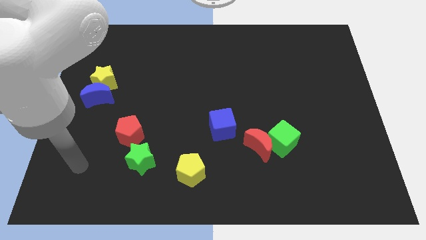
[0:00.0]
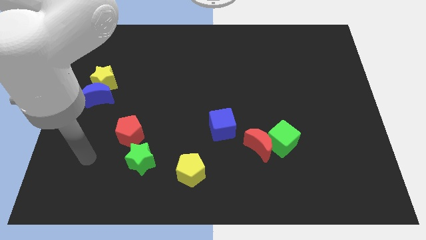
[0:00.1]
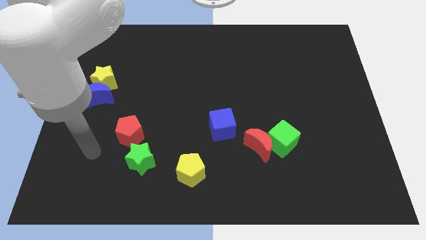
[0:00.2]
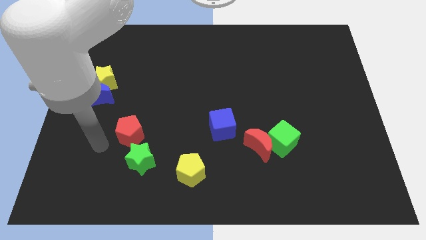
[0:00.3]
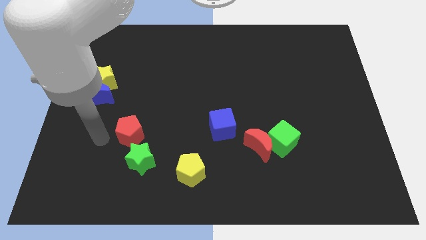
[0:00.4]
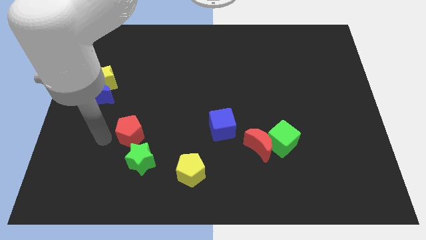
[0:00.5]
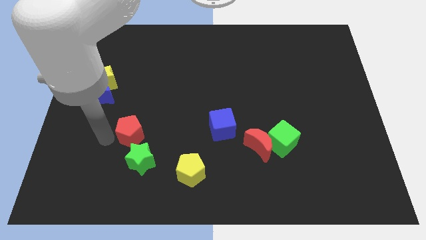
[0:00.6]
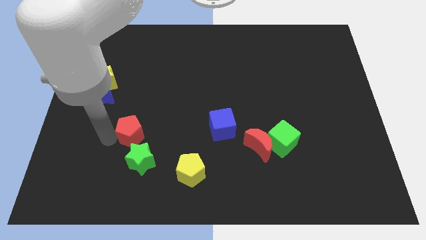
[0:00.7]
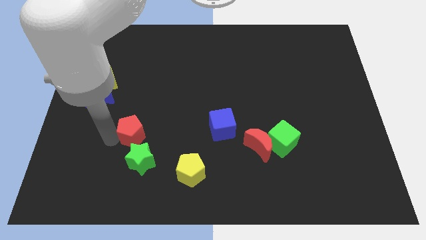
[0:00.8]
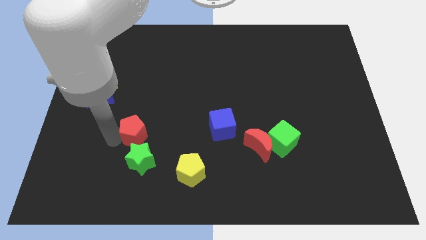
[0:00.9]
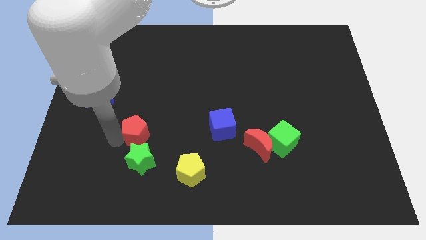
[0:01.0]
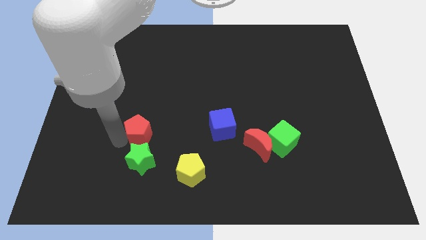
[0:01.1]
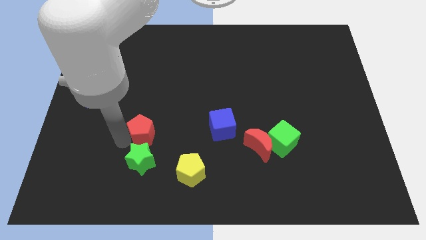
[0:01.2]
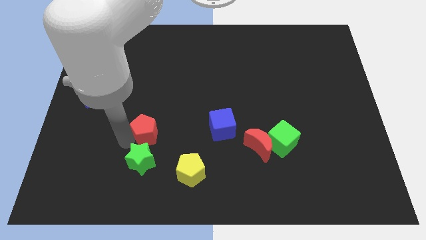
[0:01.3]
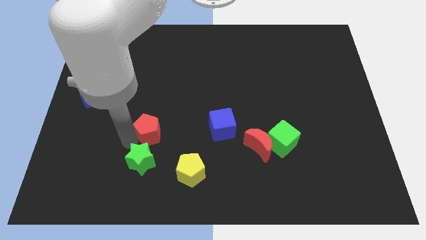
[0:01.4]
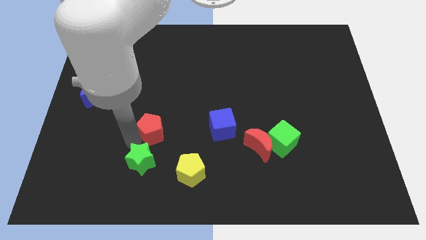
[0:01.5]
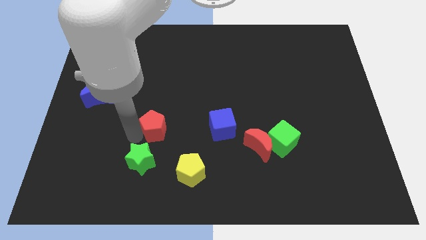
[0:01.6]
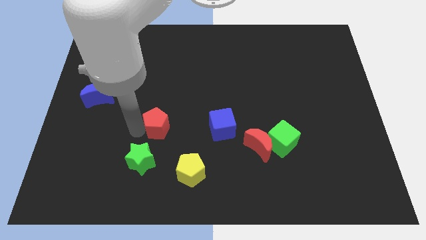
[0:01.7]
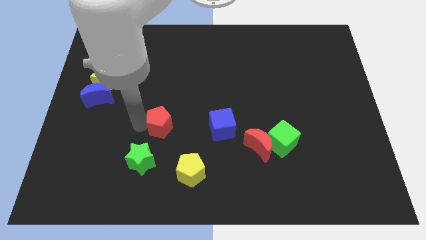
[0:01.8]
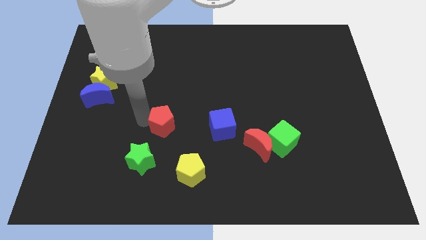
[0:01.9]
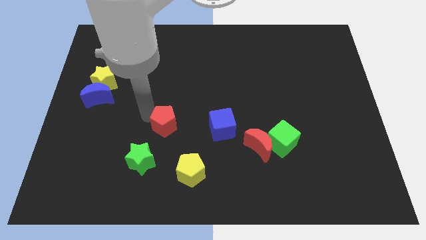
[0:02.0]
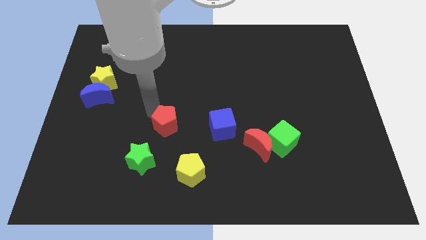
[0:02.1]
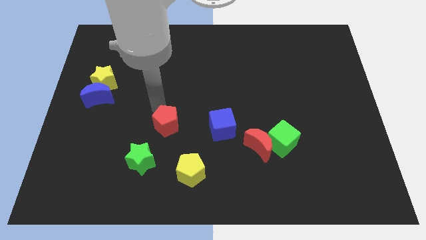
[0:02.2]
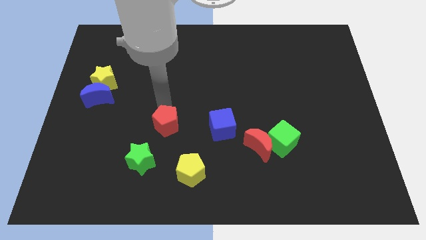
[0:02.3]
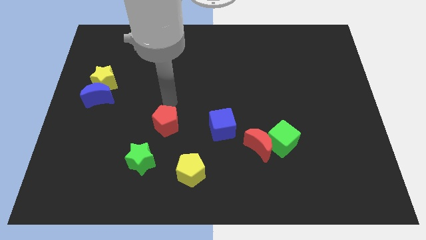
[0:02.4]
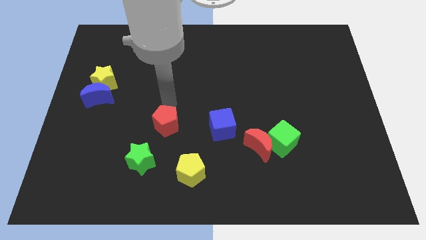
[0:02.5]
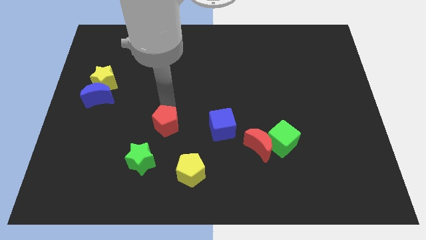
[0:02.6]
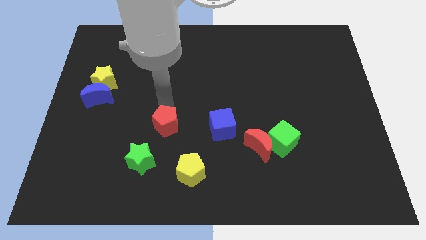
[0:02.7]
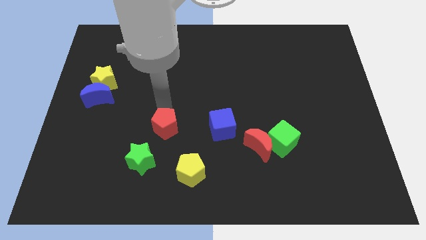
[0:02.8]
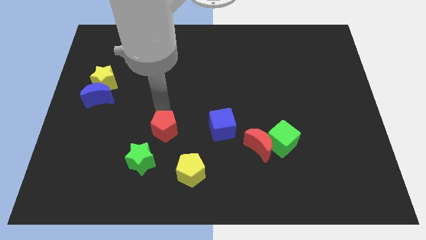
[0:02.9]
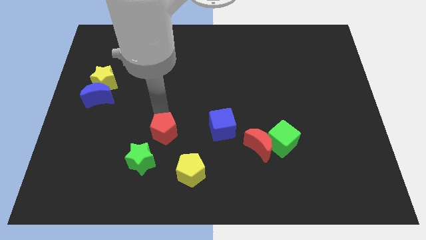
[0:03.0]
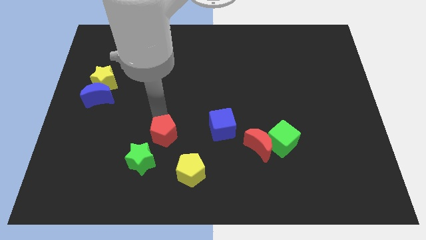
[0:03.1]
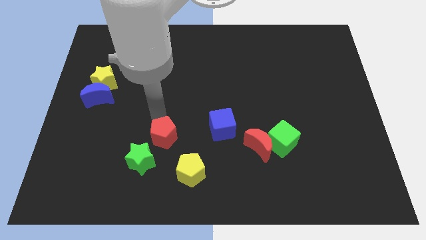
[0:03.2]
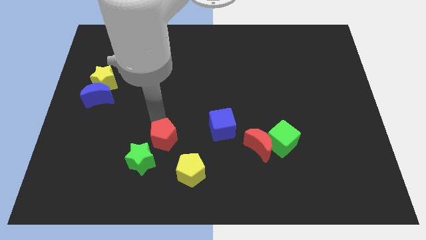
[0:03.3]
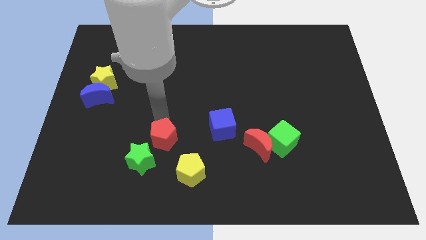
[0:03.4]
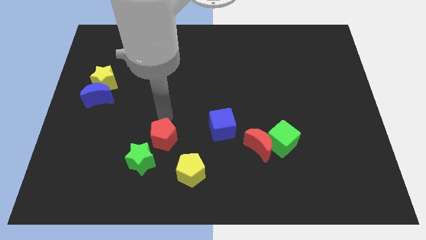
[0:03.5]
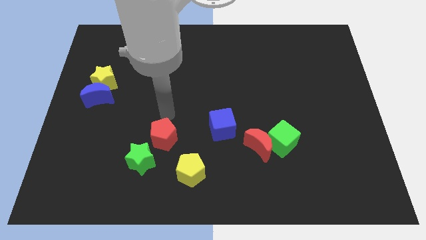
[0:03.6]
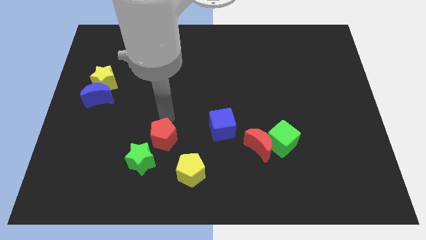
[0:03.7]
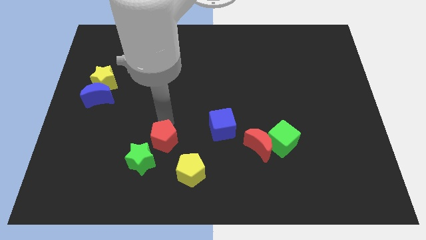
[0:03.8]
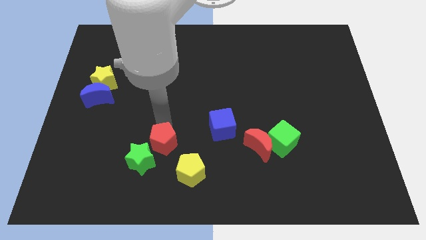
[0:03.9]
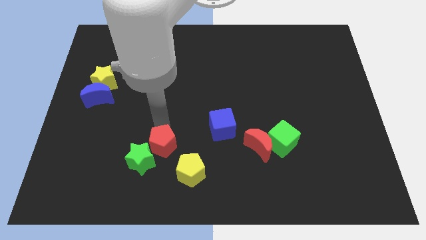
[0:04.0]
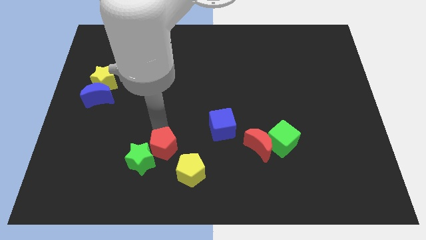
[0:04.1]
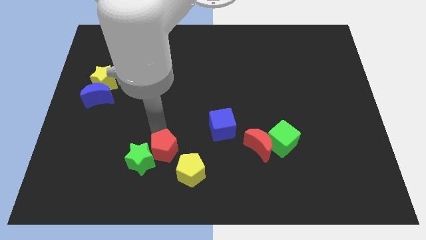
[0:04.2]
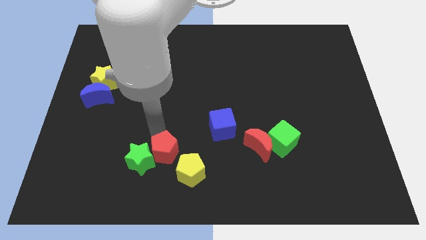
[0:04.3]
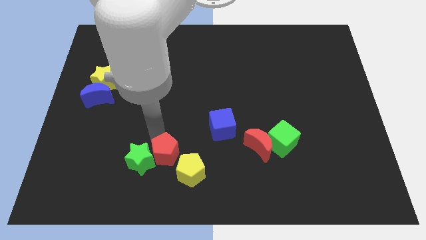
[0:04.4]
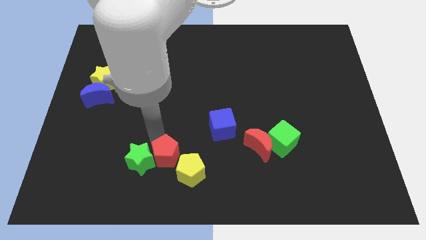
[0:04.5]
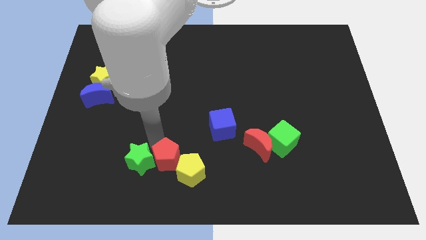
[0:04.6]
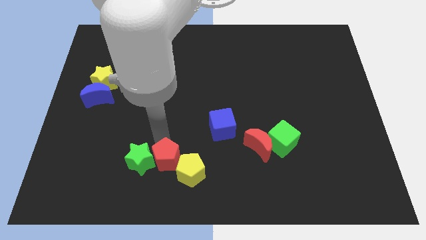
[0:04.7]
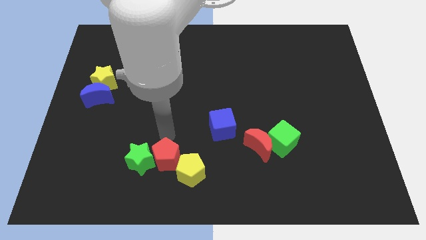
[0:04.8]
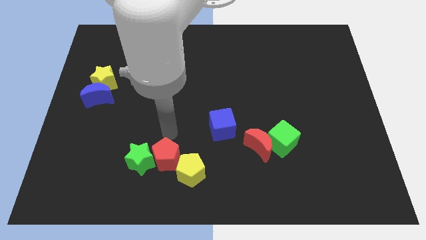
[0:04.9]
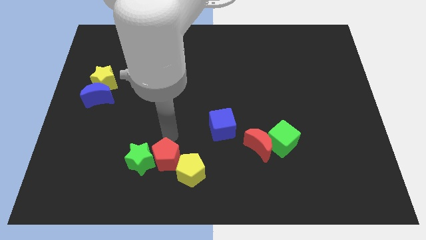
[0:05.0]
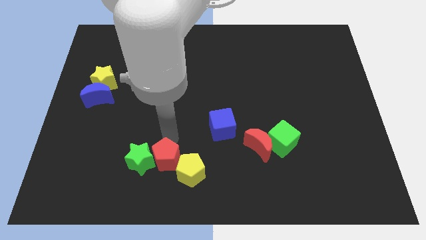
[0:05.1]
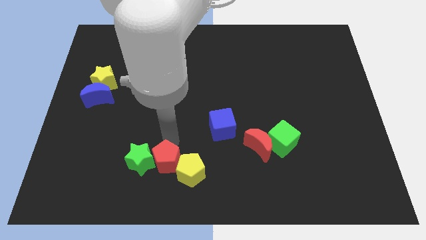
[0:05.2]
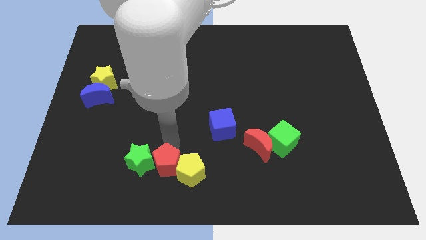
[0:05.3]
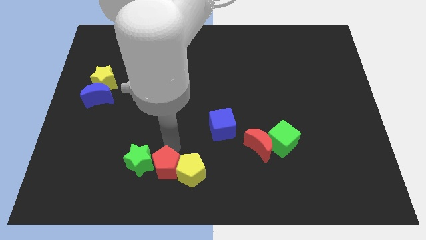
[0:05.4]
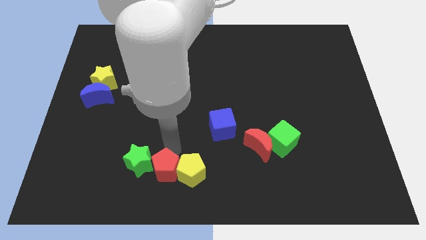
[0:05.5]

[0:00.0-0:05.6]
push the red pentagon to the bottom side

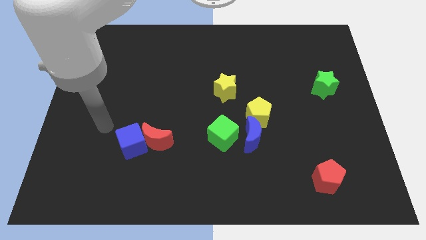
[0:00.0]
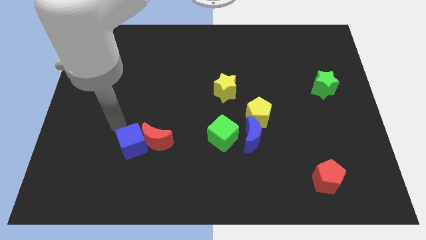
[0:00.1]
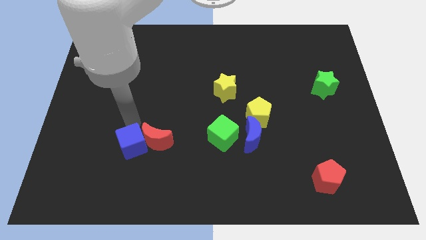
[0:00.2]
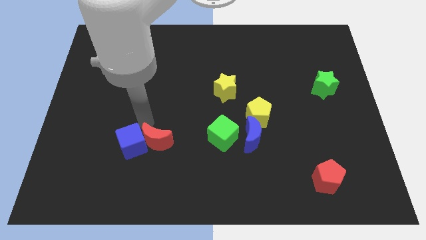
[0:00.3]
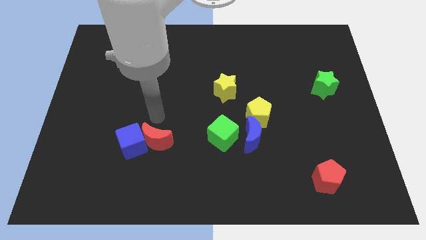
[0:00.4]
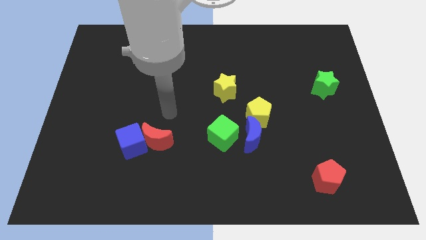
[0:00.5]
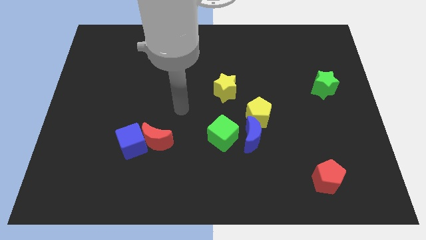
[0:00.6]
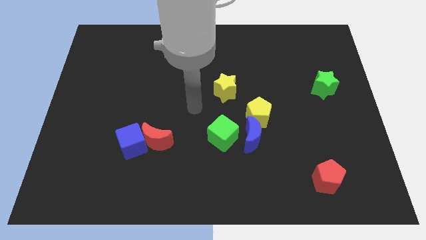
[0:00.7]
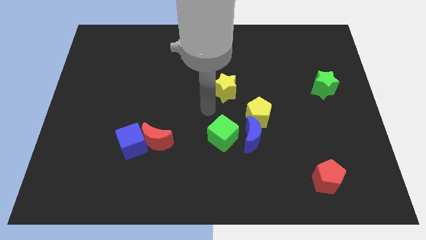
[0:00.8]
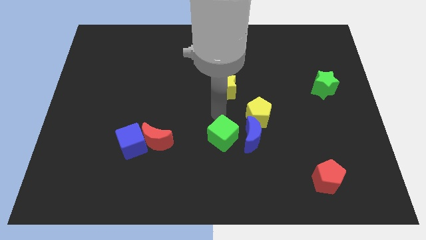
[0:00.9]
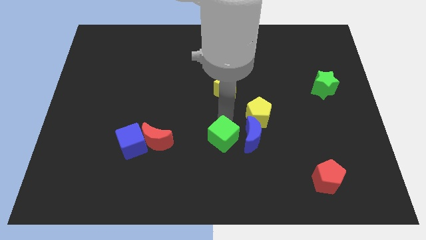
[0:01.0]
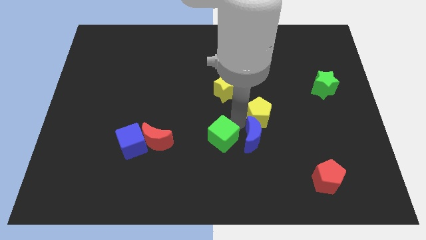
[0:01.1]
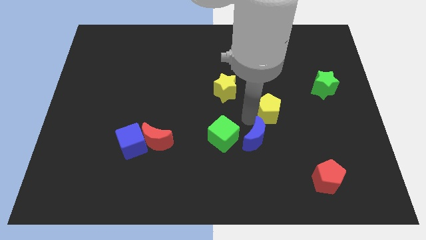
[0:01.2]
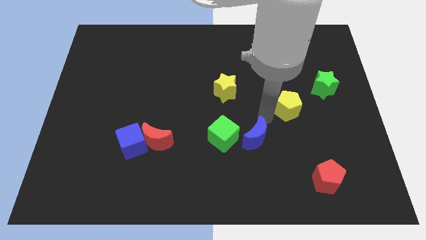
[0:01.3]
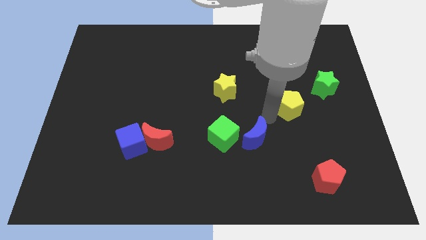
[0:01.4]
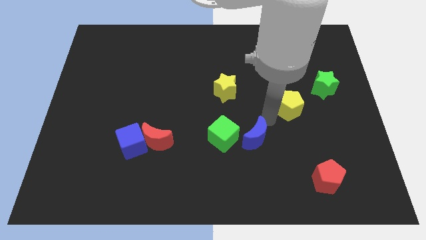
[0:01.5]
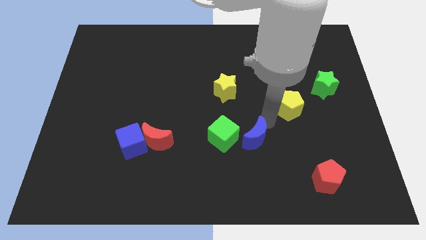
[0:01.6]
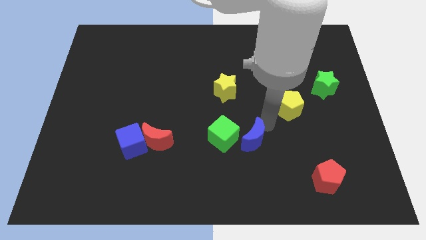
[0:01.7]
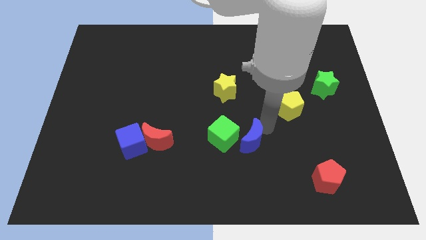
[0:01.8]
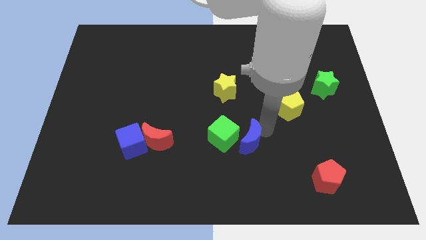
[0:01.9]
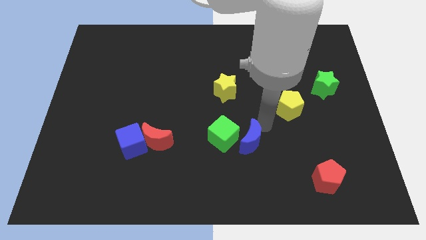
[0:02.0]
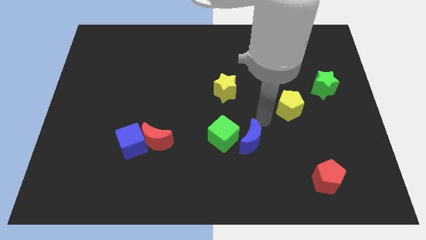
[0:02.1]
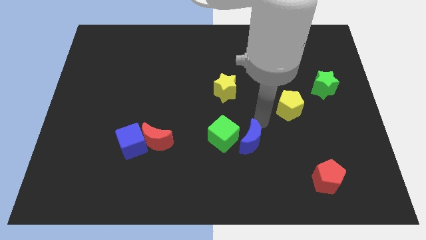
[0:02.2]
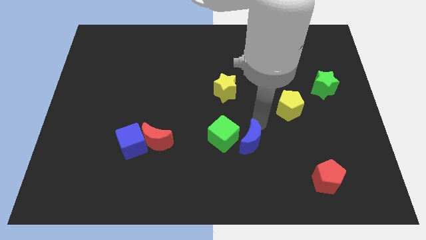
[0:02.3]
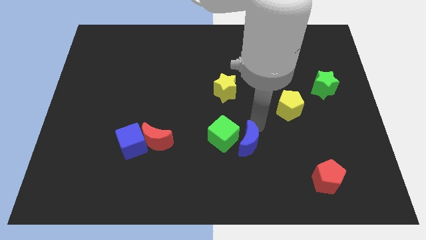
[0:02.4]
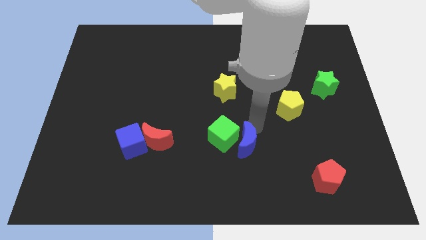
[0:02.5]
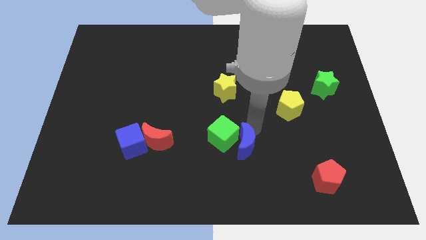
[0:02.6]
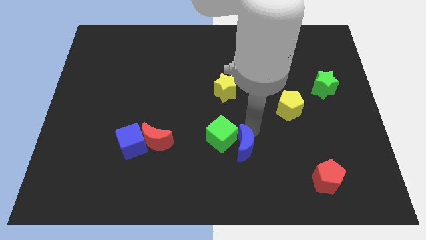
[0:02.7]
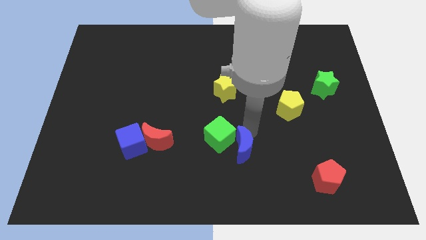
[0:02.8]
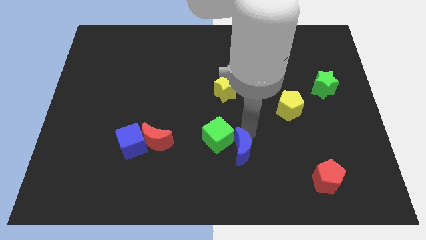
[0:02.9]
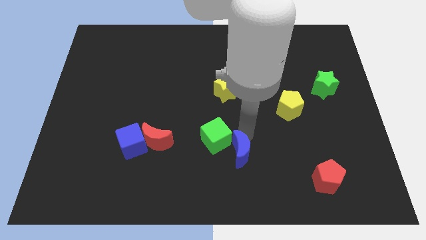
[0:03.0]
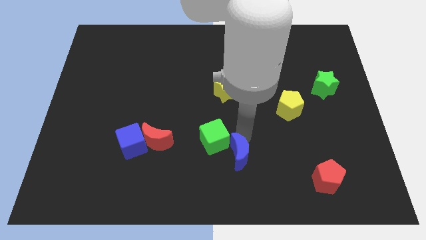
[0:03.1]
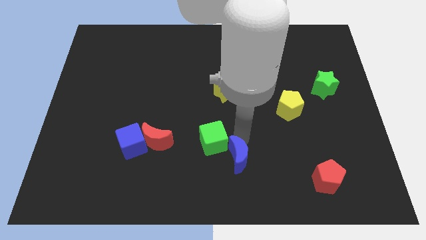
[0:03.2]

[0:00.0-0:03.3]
push the blue moon to the bottom side
